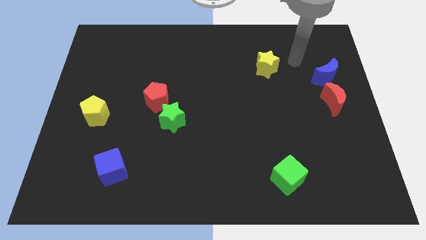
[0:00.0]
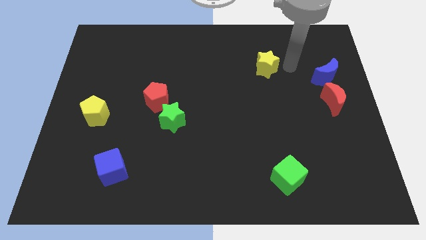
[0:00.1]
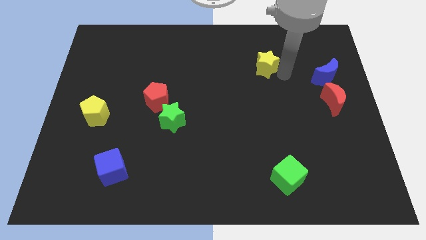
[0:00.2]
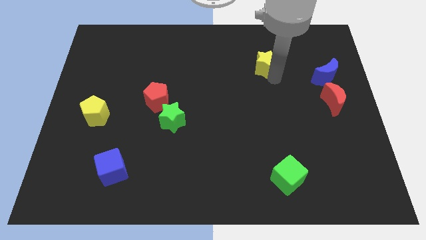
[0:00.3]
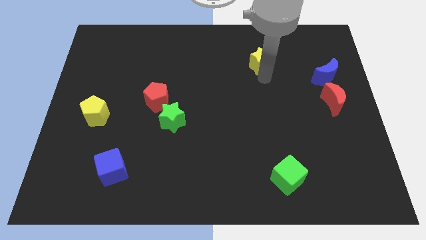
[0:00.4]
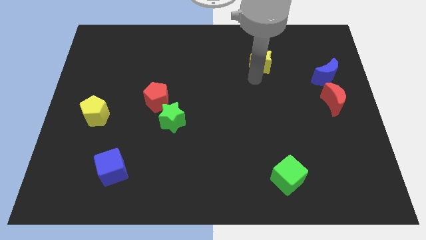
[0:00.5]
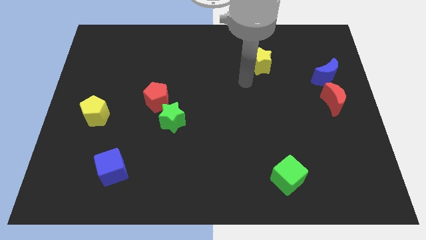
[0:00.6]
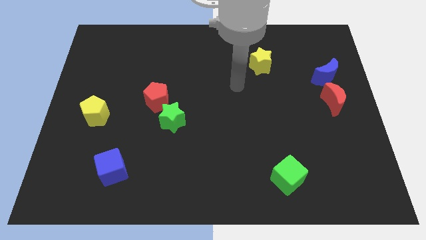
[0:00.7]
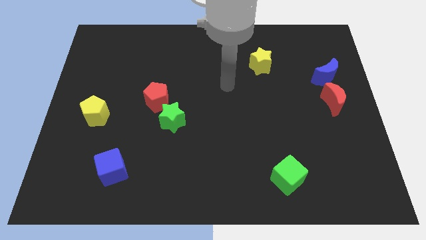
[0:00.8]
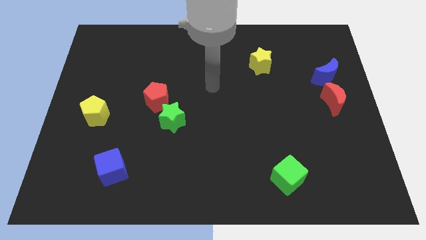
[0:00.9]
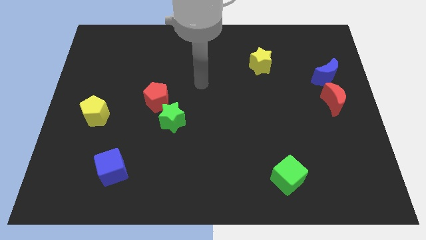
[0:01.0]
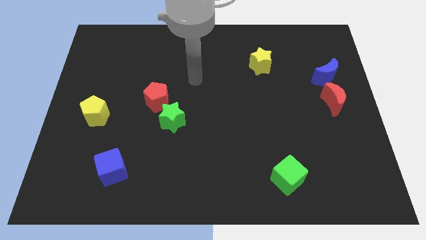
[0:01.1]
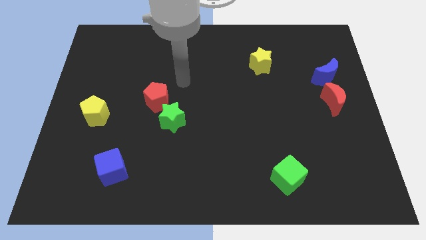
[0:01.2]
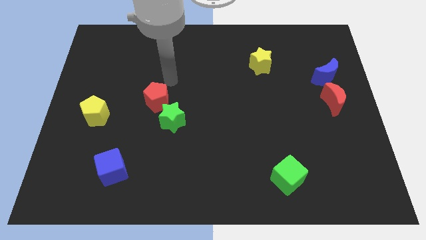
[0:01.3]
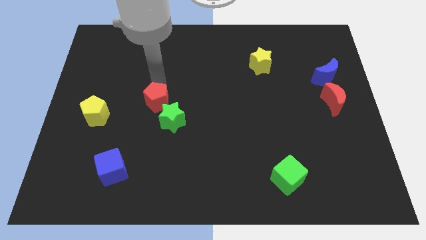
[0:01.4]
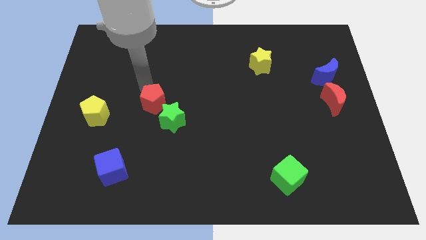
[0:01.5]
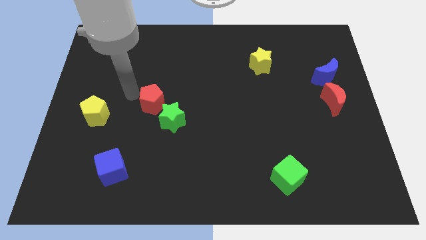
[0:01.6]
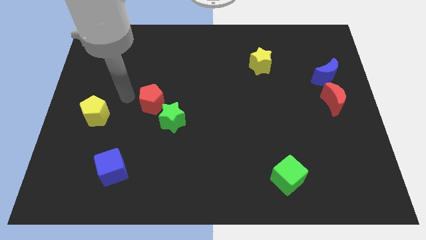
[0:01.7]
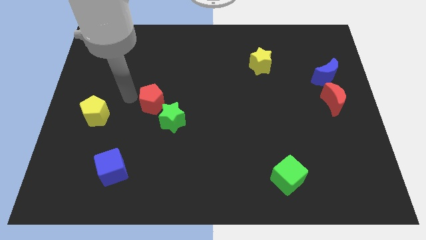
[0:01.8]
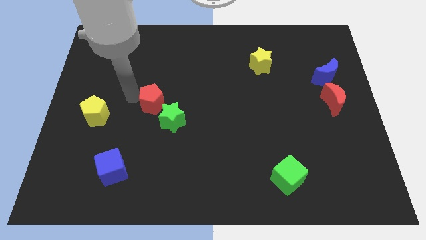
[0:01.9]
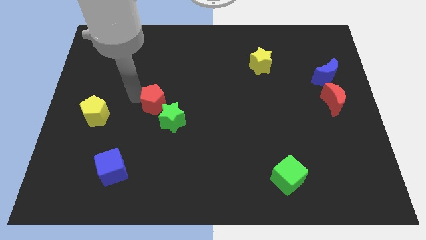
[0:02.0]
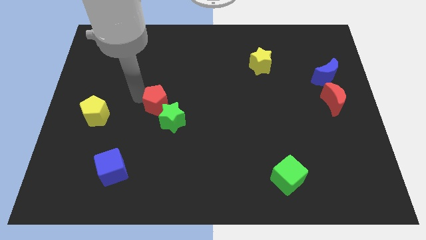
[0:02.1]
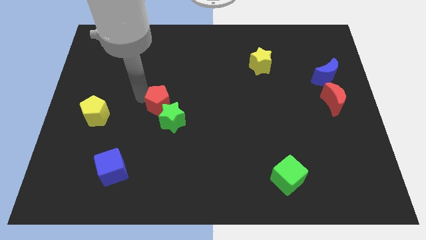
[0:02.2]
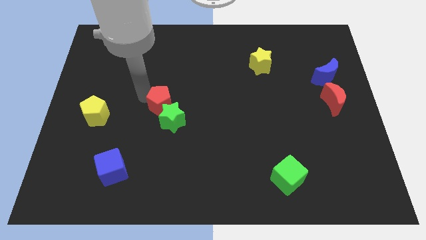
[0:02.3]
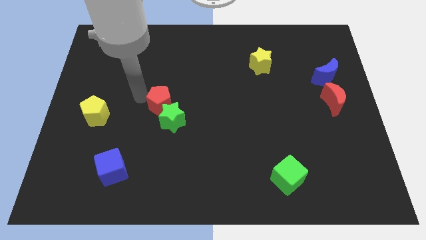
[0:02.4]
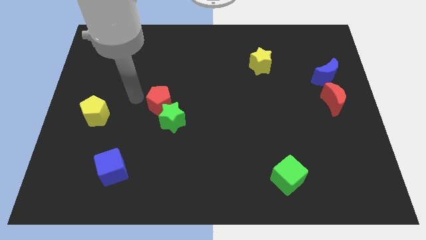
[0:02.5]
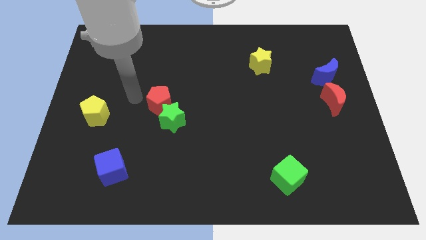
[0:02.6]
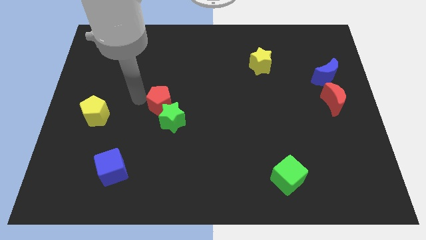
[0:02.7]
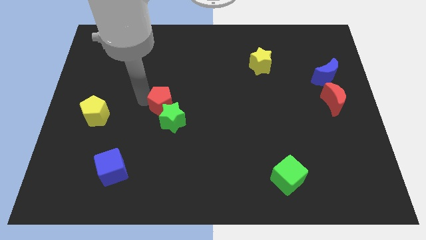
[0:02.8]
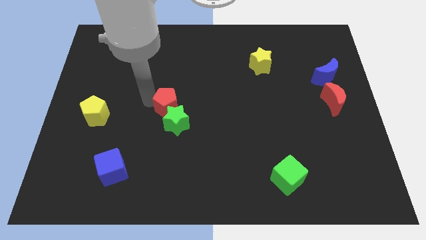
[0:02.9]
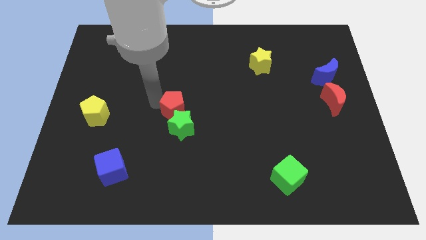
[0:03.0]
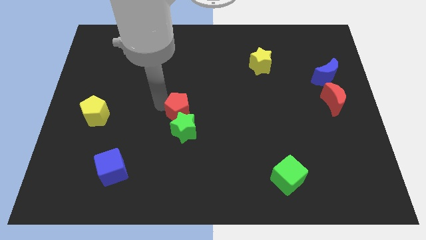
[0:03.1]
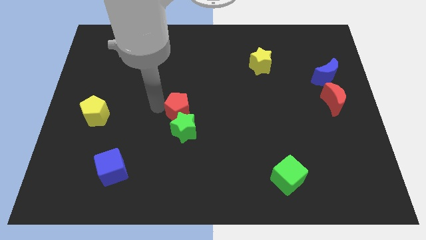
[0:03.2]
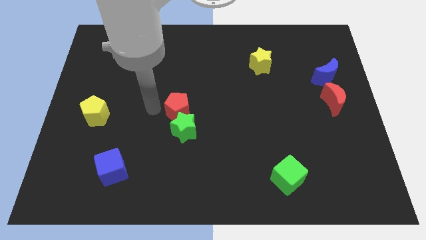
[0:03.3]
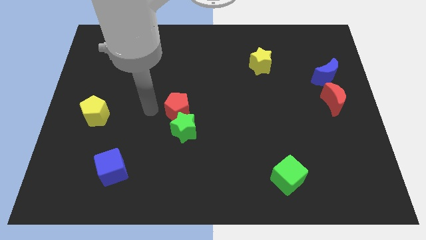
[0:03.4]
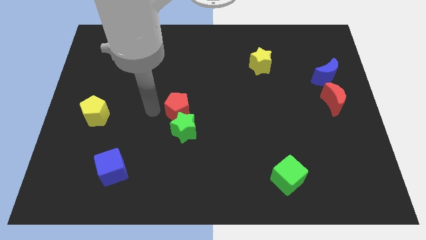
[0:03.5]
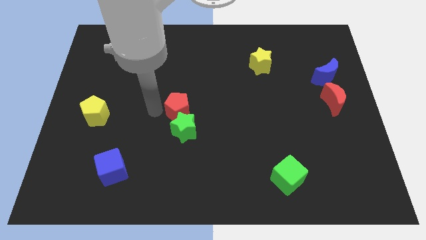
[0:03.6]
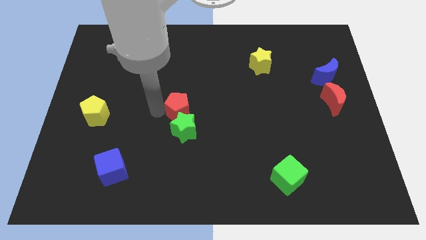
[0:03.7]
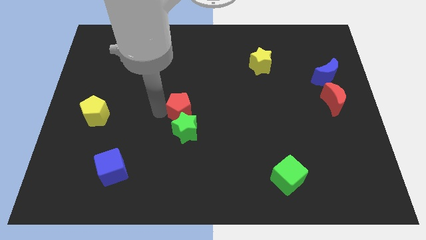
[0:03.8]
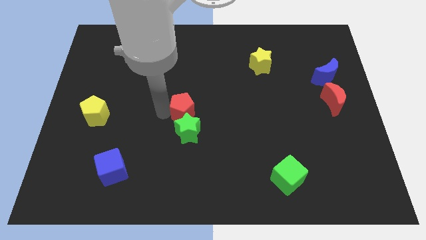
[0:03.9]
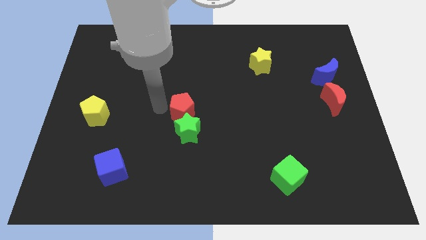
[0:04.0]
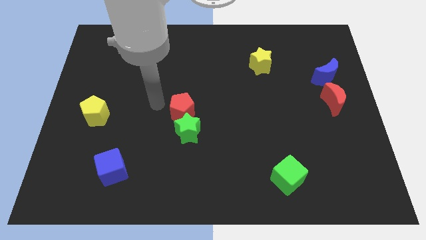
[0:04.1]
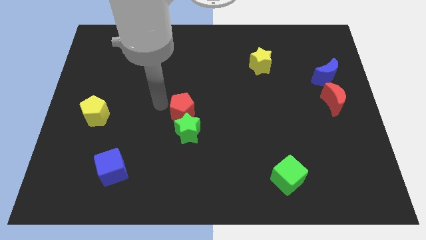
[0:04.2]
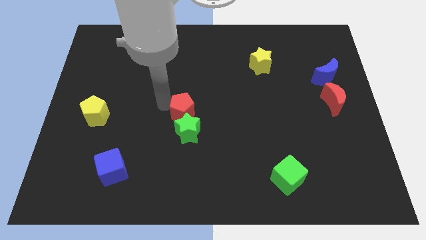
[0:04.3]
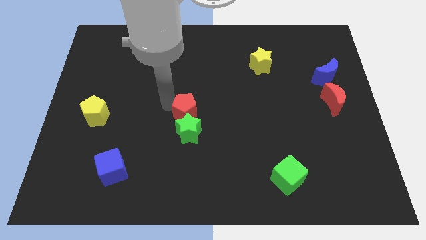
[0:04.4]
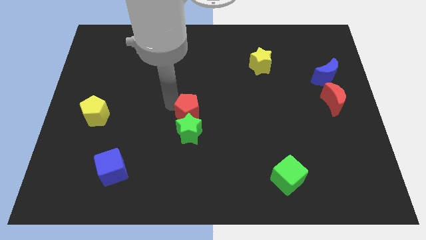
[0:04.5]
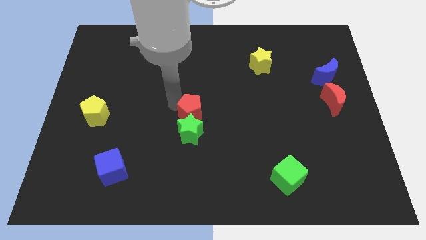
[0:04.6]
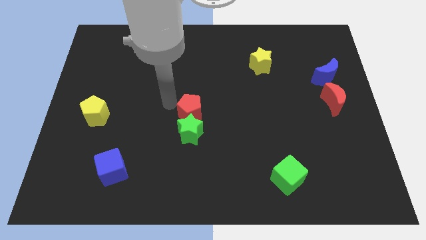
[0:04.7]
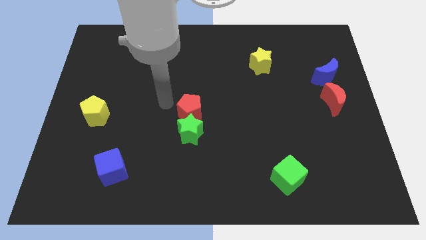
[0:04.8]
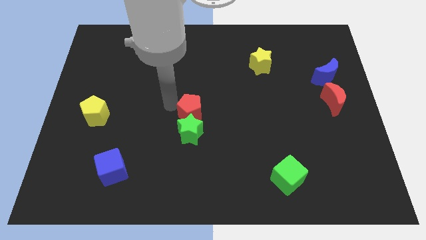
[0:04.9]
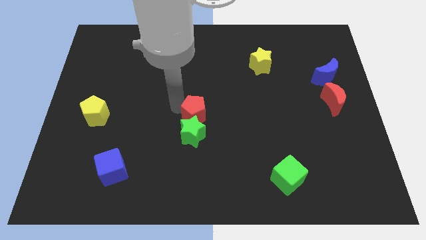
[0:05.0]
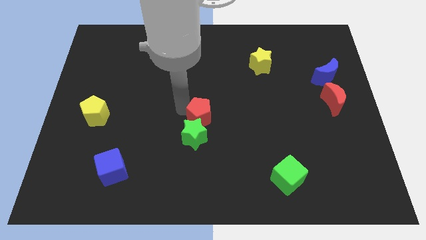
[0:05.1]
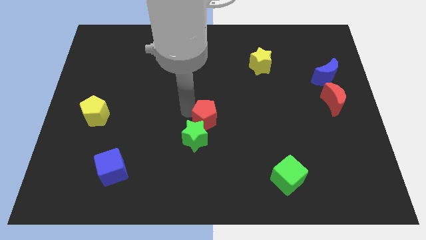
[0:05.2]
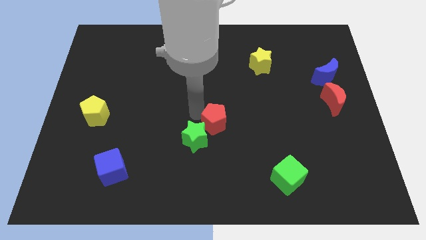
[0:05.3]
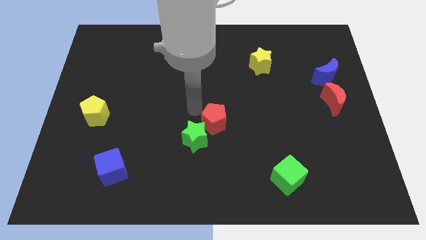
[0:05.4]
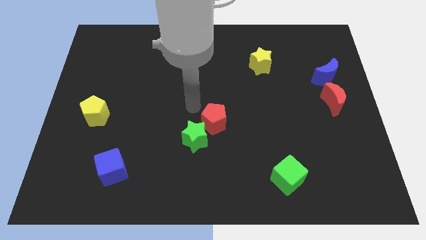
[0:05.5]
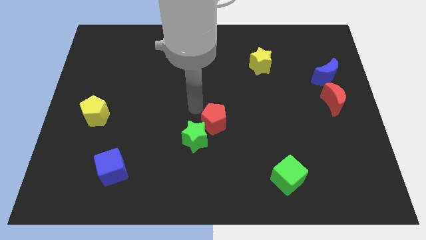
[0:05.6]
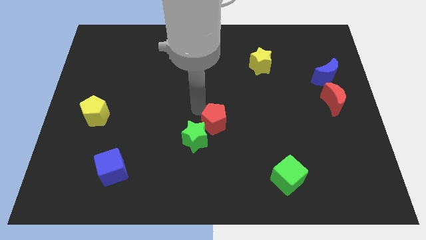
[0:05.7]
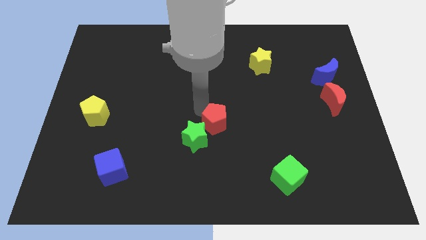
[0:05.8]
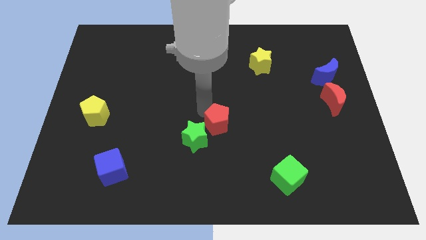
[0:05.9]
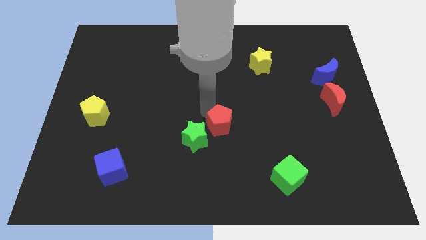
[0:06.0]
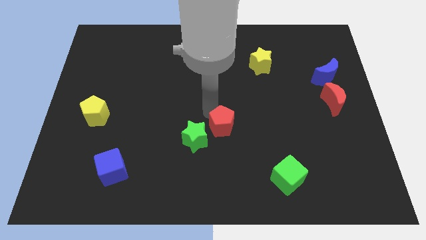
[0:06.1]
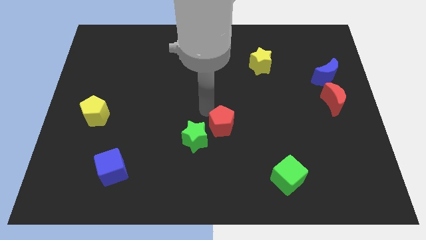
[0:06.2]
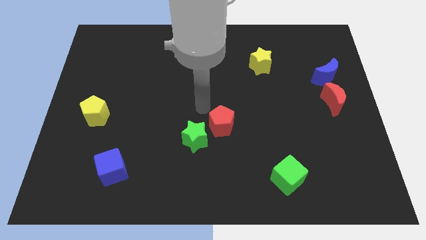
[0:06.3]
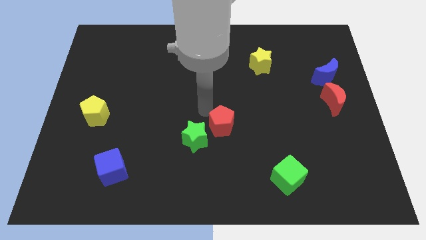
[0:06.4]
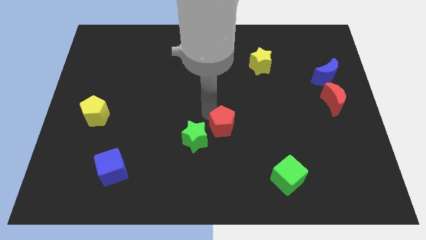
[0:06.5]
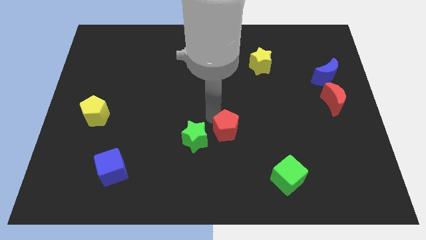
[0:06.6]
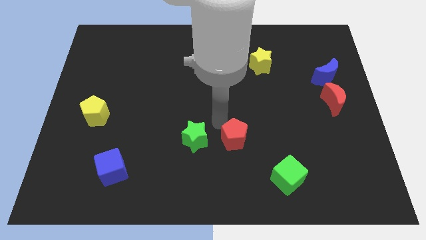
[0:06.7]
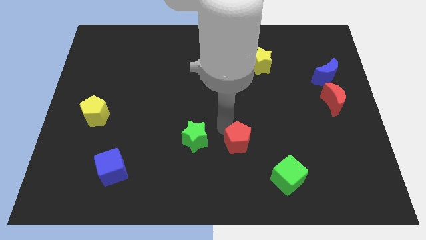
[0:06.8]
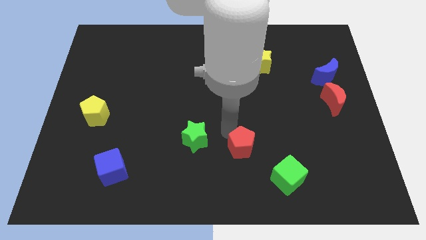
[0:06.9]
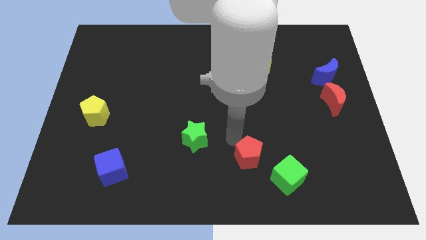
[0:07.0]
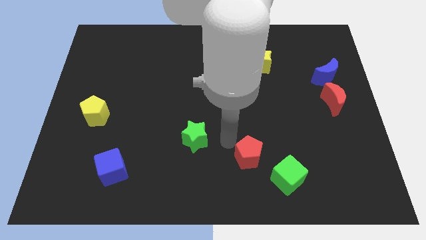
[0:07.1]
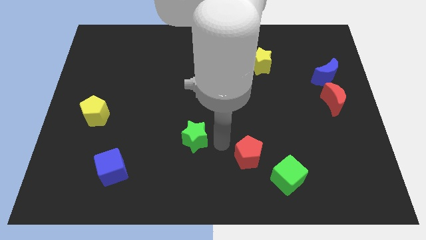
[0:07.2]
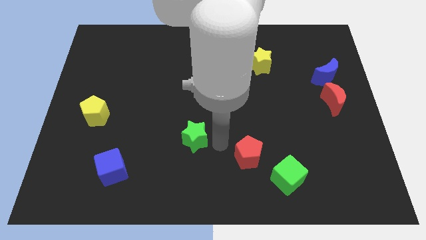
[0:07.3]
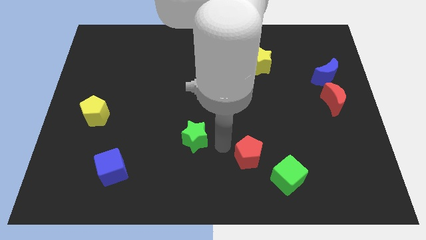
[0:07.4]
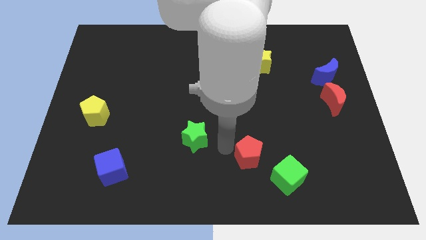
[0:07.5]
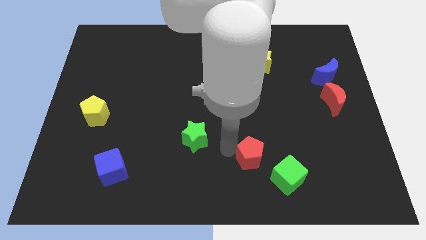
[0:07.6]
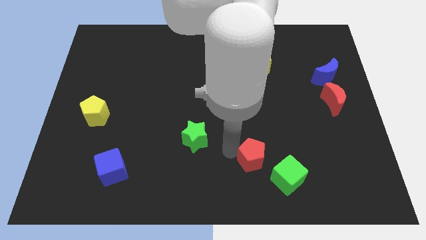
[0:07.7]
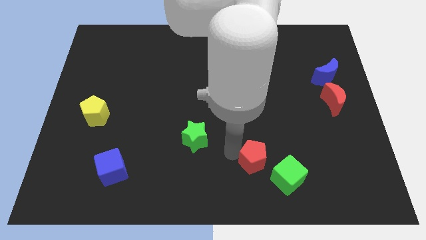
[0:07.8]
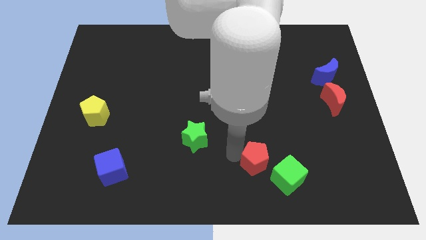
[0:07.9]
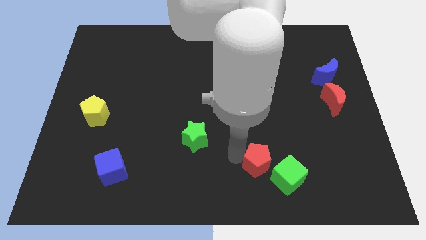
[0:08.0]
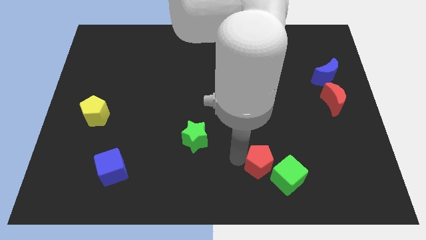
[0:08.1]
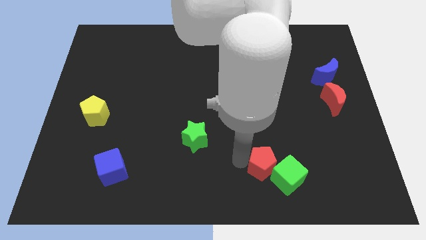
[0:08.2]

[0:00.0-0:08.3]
put the red pentagon next to the green cube
